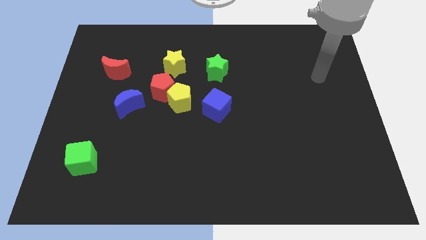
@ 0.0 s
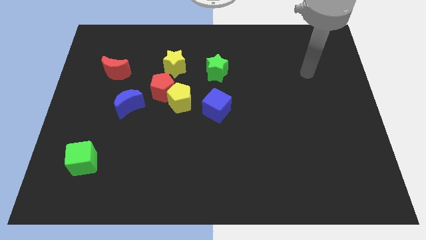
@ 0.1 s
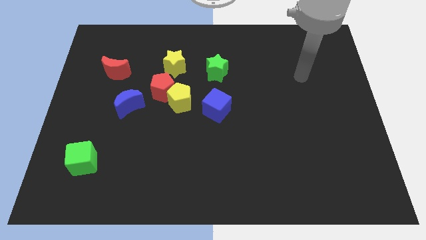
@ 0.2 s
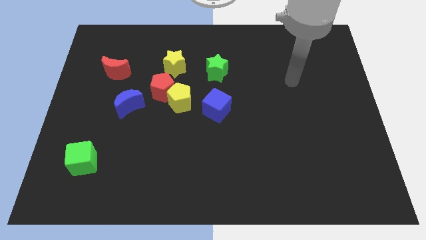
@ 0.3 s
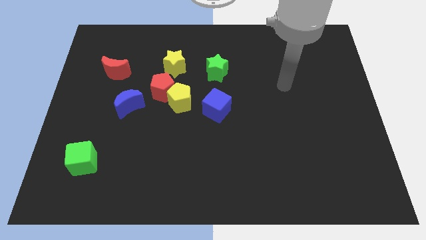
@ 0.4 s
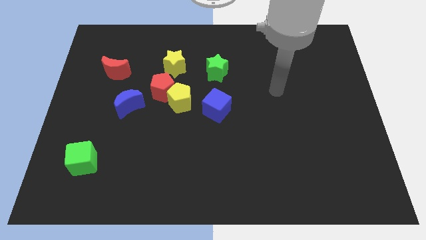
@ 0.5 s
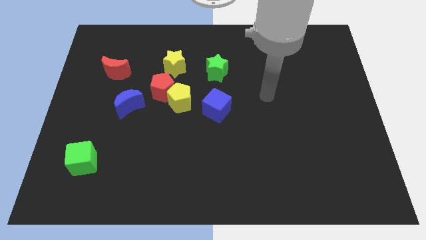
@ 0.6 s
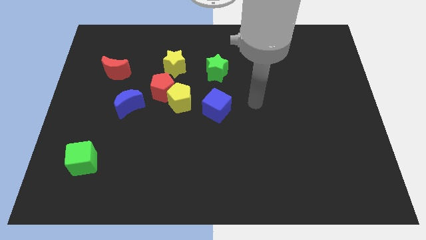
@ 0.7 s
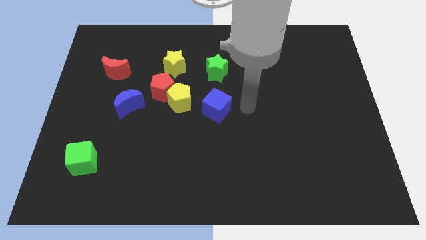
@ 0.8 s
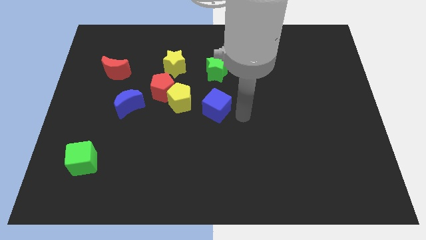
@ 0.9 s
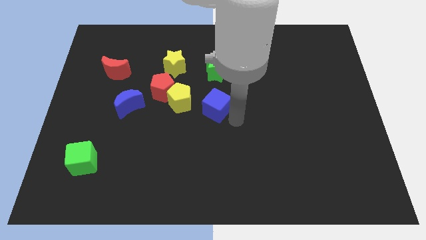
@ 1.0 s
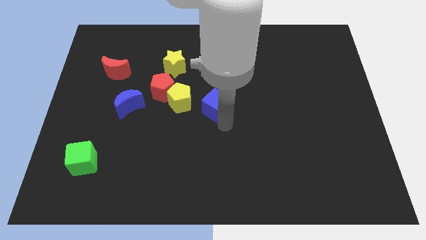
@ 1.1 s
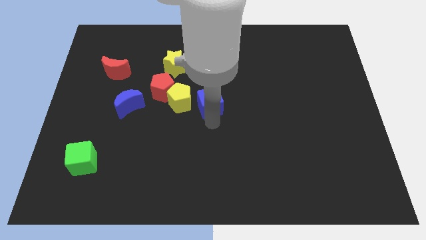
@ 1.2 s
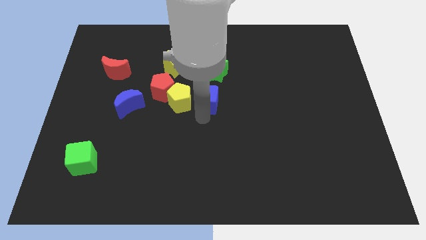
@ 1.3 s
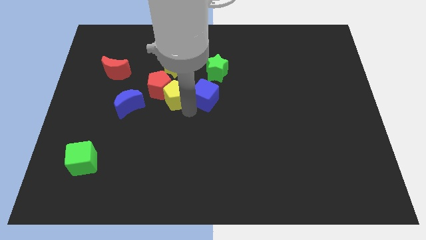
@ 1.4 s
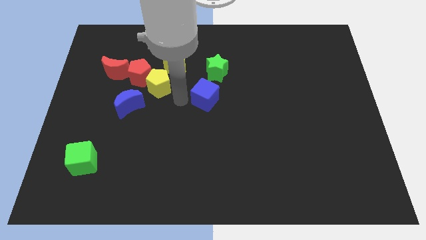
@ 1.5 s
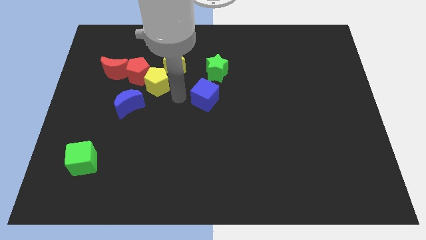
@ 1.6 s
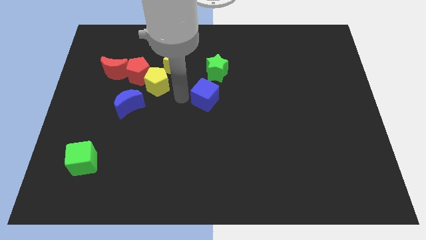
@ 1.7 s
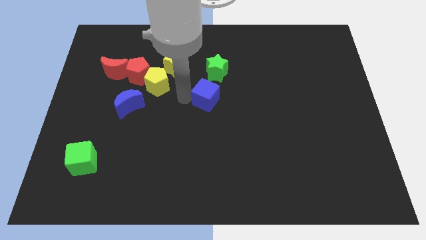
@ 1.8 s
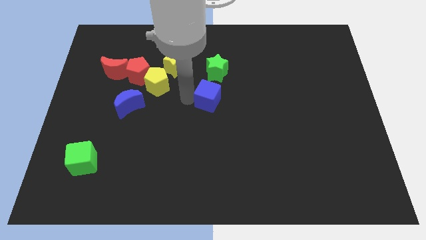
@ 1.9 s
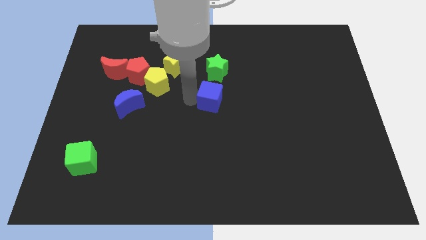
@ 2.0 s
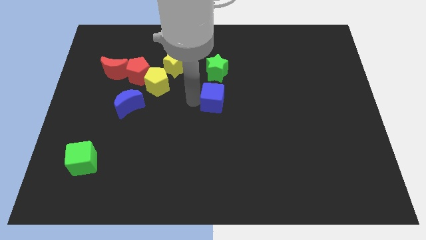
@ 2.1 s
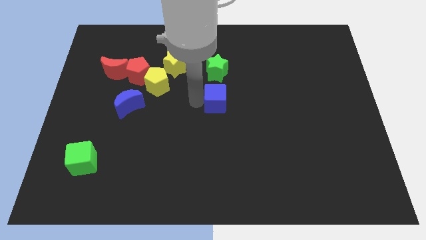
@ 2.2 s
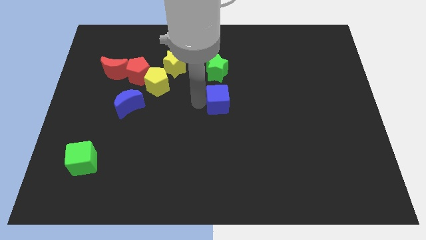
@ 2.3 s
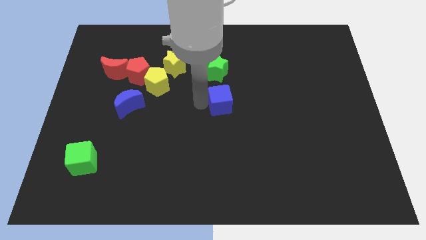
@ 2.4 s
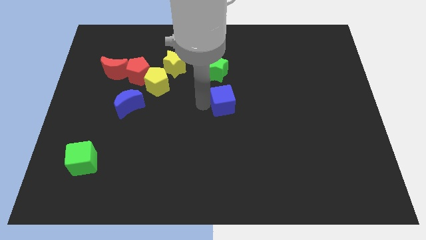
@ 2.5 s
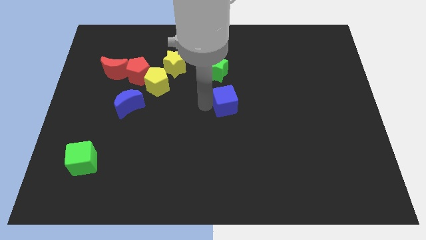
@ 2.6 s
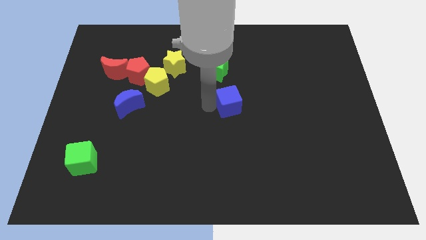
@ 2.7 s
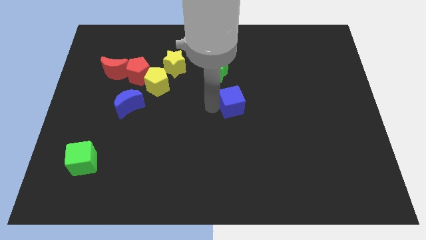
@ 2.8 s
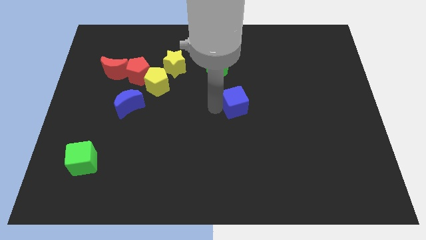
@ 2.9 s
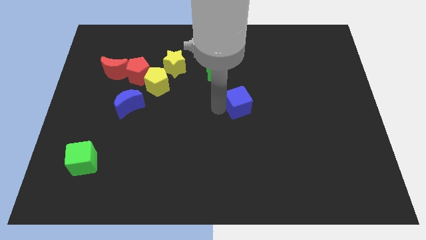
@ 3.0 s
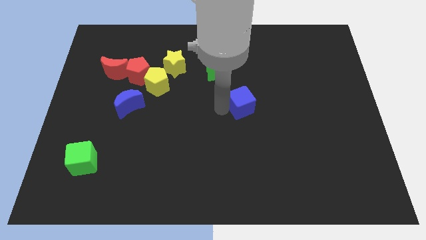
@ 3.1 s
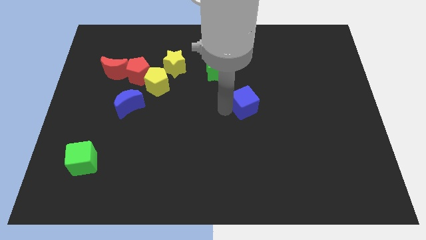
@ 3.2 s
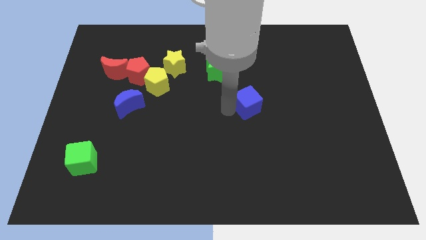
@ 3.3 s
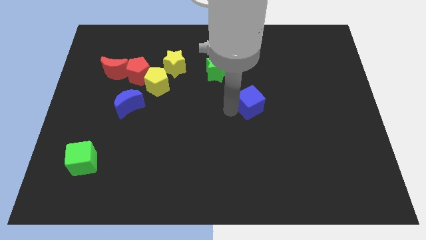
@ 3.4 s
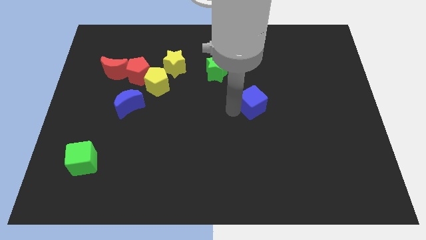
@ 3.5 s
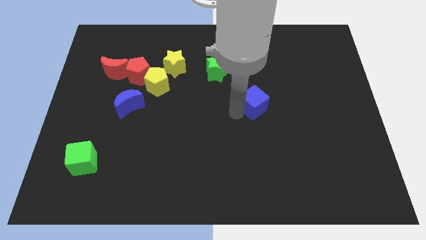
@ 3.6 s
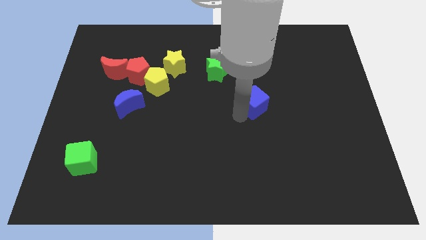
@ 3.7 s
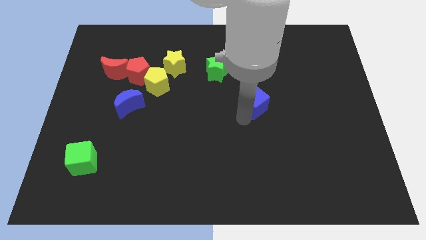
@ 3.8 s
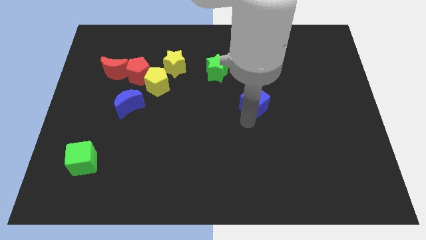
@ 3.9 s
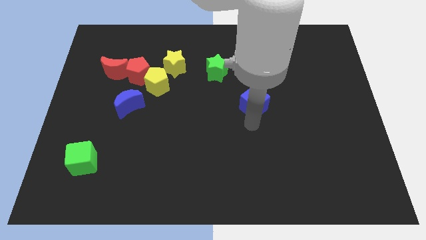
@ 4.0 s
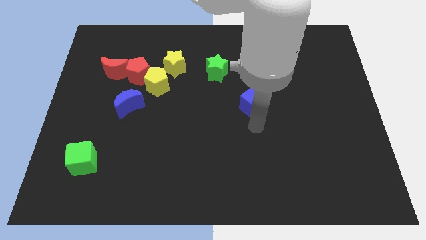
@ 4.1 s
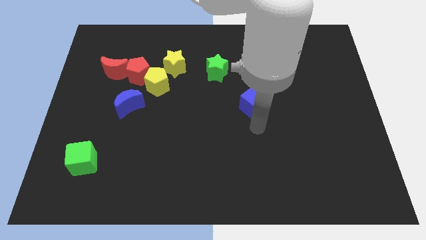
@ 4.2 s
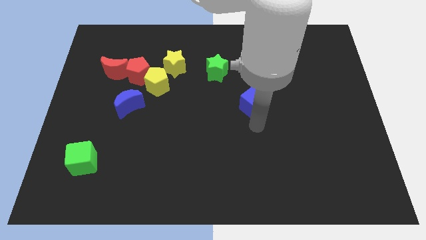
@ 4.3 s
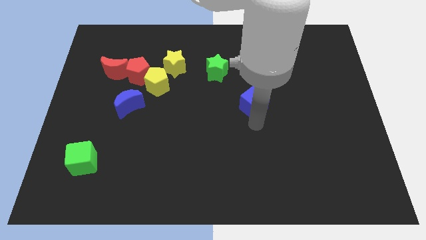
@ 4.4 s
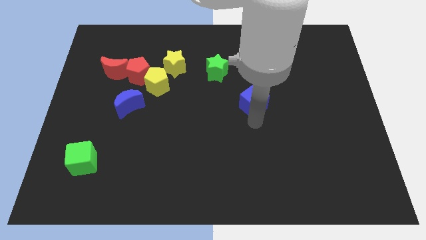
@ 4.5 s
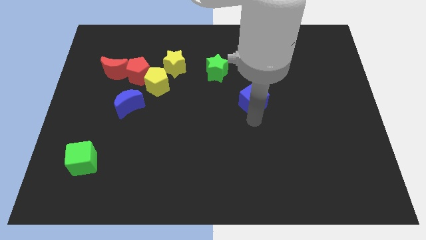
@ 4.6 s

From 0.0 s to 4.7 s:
slightly slide the blue cube diagonally upwards and to the right

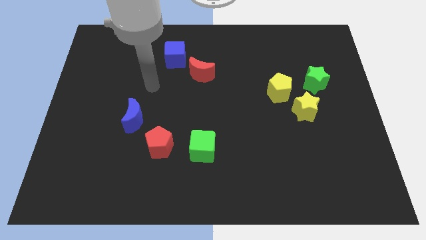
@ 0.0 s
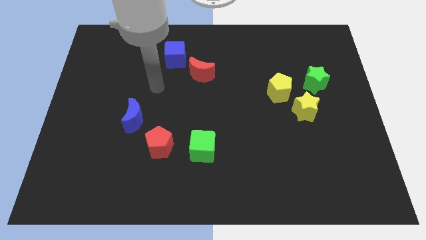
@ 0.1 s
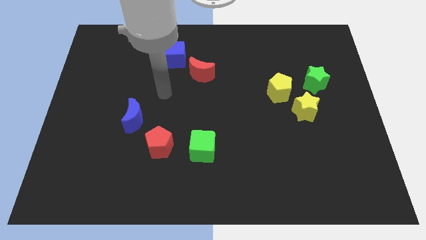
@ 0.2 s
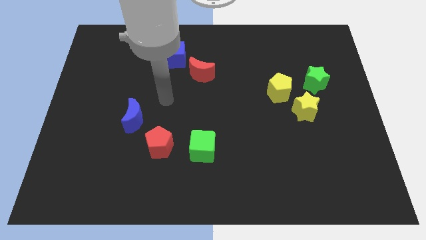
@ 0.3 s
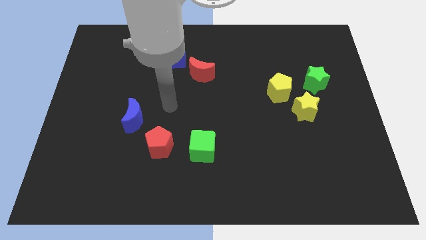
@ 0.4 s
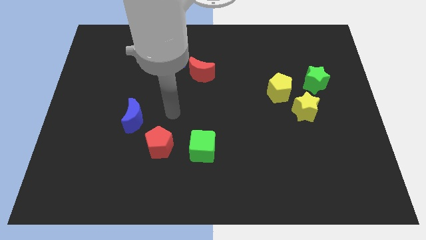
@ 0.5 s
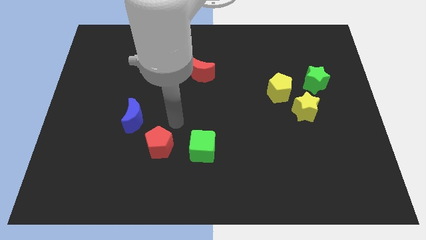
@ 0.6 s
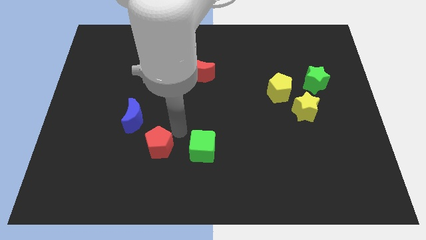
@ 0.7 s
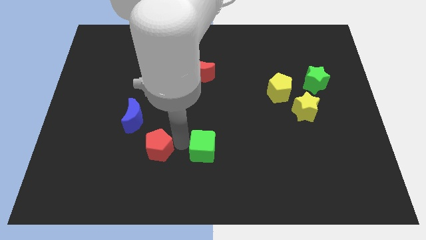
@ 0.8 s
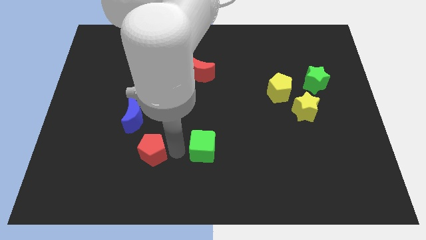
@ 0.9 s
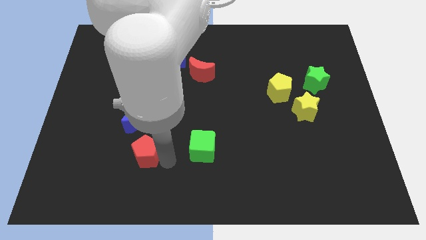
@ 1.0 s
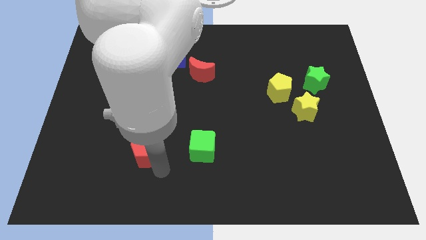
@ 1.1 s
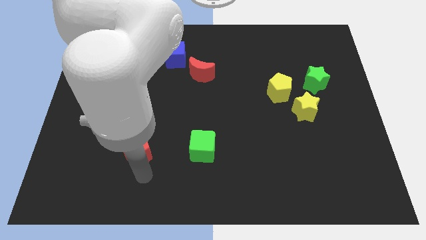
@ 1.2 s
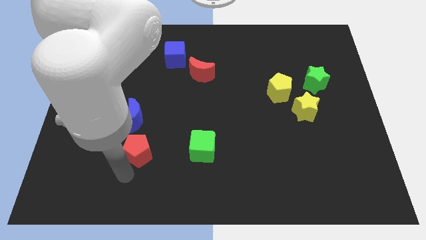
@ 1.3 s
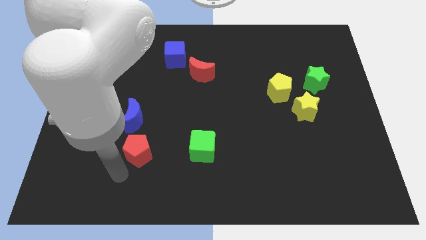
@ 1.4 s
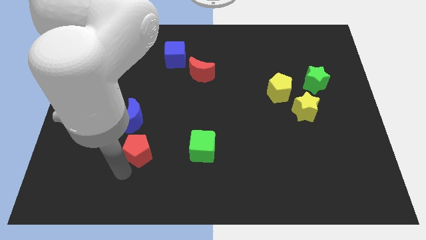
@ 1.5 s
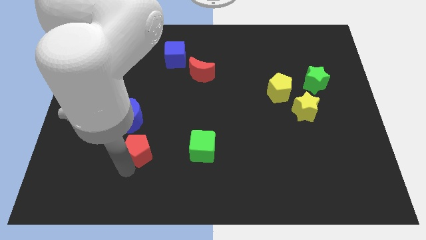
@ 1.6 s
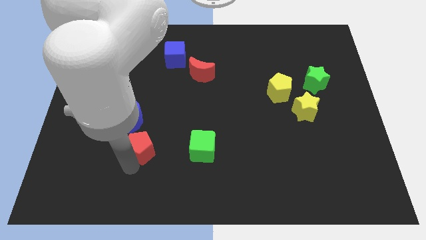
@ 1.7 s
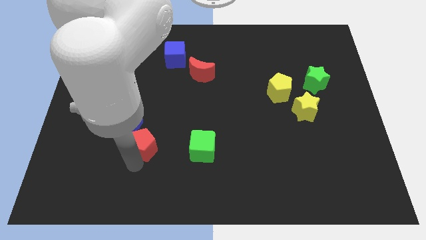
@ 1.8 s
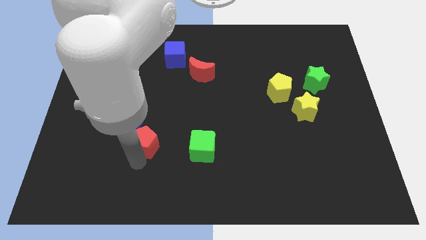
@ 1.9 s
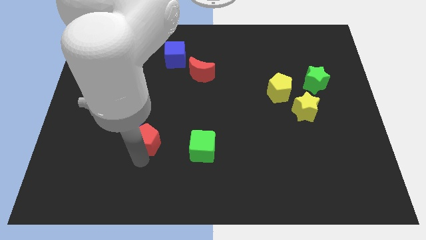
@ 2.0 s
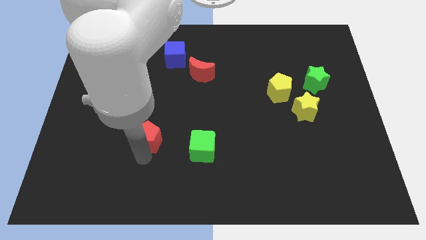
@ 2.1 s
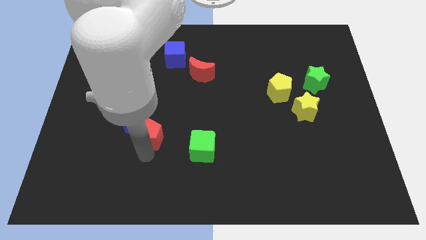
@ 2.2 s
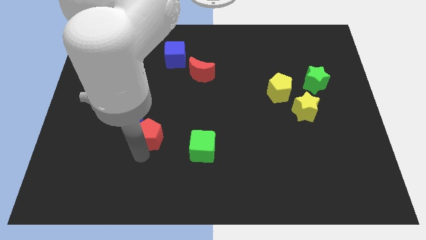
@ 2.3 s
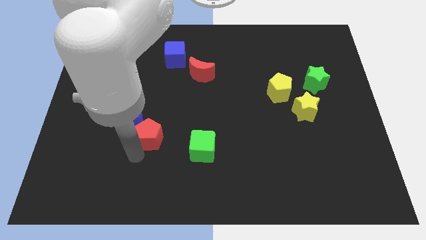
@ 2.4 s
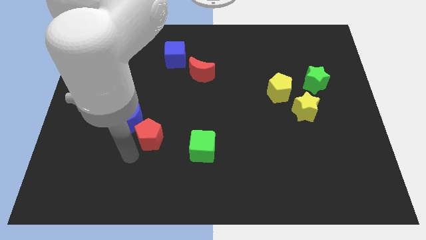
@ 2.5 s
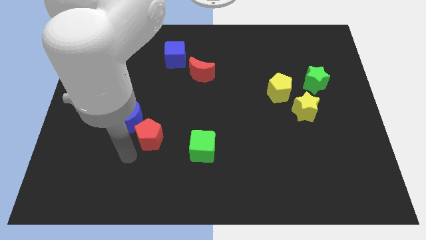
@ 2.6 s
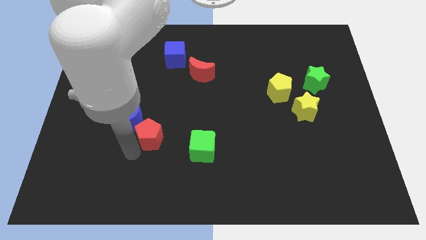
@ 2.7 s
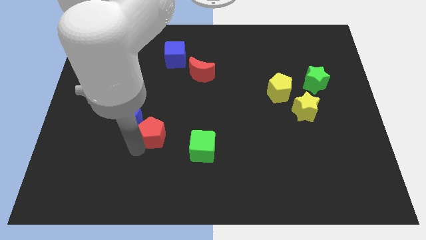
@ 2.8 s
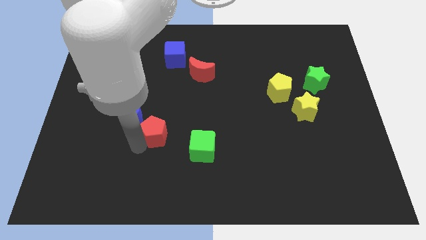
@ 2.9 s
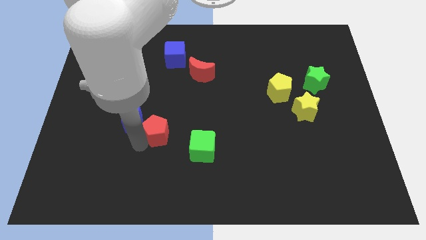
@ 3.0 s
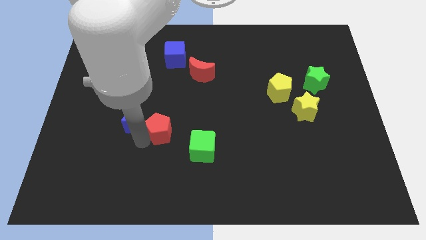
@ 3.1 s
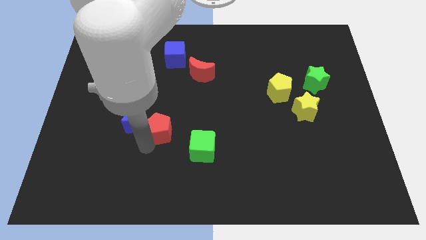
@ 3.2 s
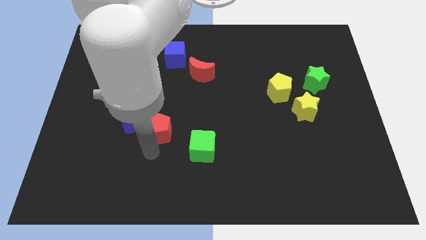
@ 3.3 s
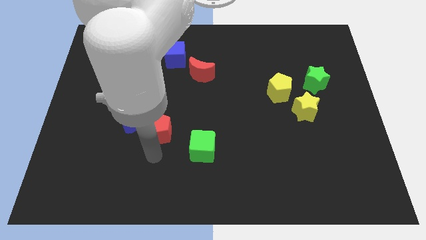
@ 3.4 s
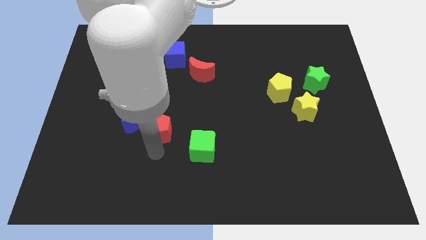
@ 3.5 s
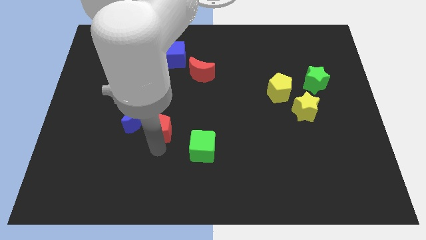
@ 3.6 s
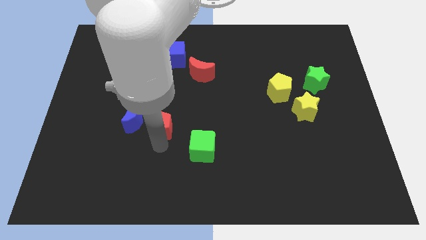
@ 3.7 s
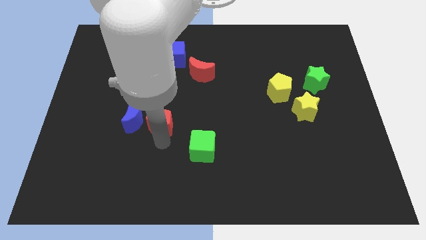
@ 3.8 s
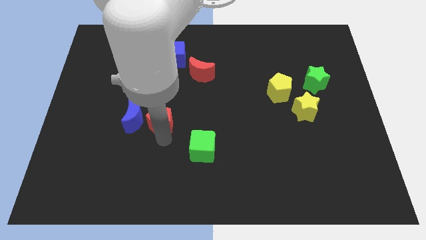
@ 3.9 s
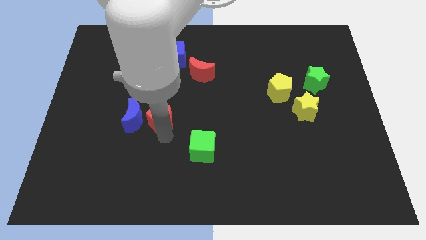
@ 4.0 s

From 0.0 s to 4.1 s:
slide the red pentagon a bit upwards
